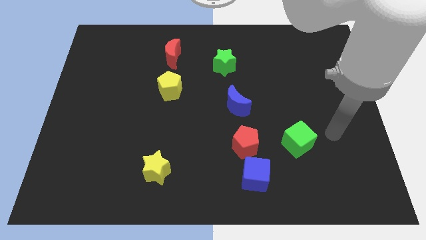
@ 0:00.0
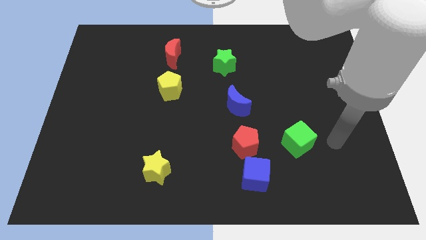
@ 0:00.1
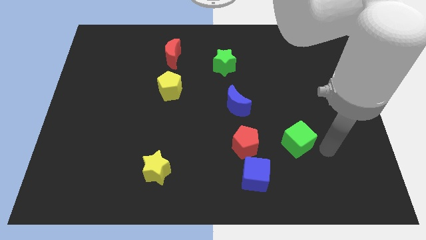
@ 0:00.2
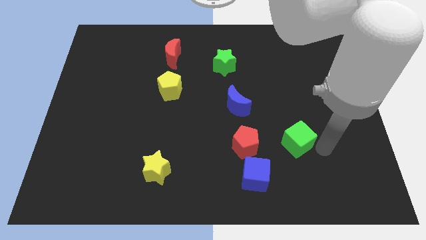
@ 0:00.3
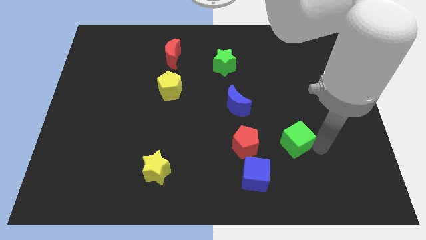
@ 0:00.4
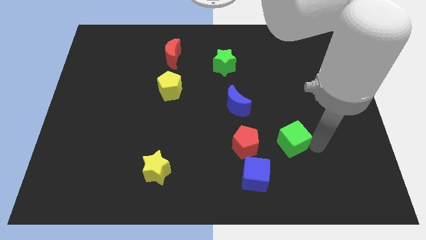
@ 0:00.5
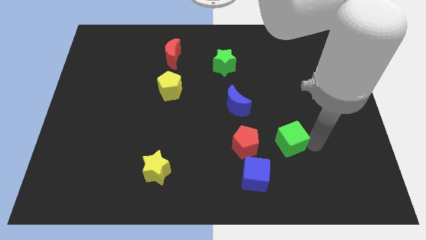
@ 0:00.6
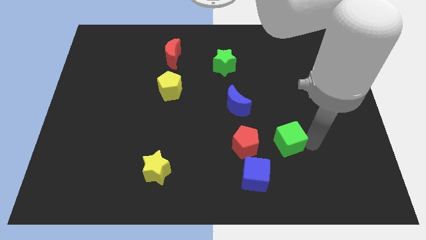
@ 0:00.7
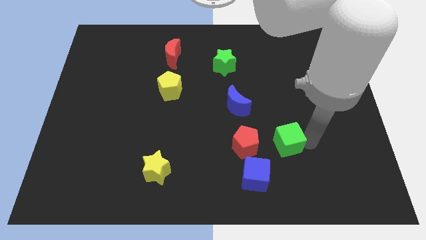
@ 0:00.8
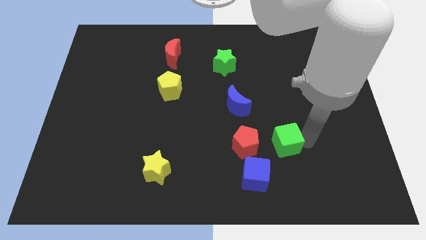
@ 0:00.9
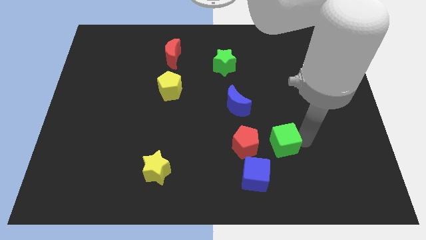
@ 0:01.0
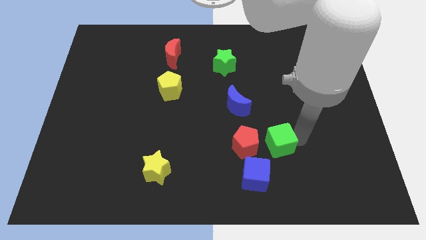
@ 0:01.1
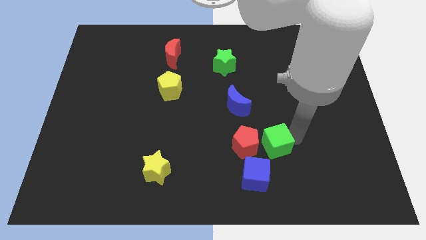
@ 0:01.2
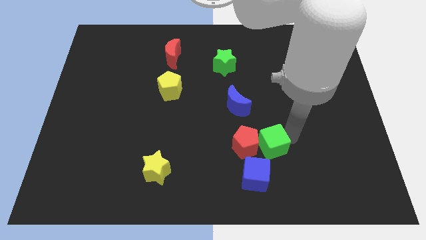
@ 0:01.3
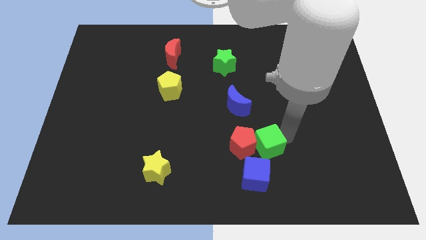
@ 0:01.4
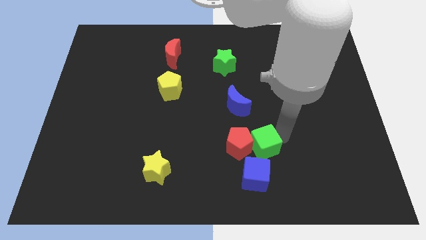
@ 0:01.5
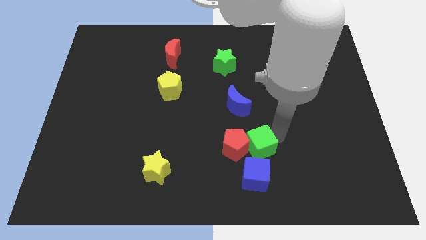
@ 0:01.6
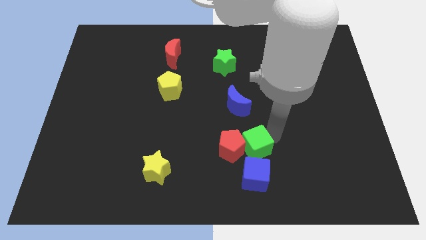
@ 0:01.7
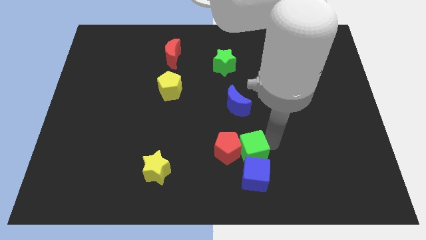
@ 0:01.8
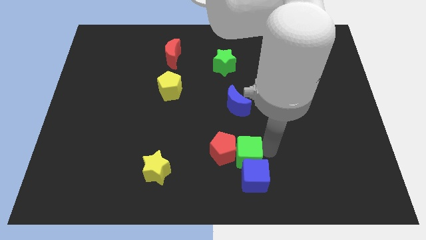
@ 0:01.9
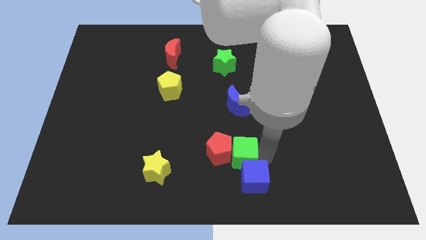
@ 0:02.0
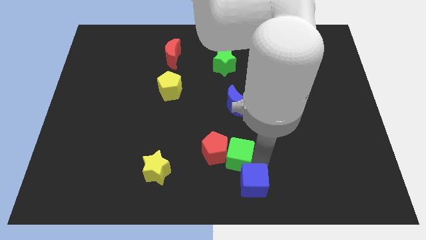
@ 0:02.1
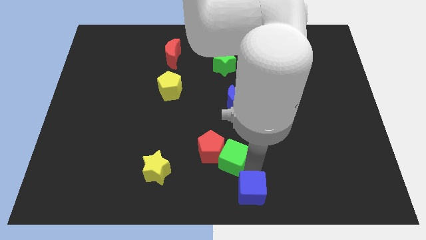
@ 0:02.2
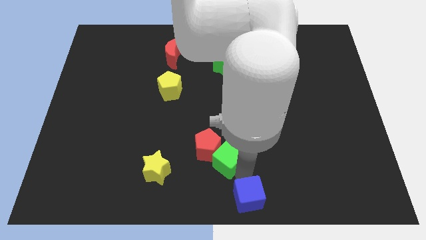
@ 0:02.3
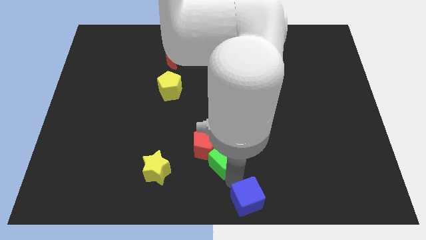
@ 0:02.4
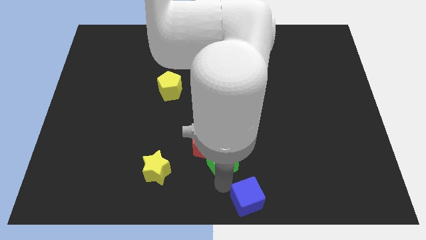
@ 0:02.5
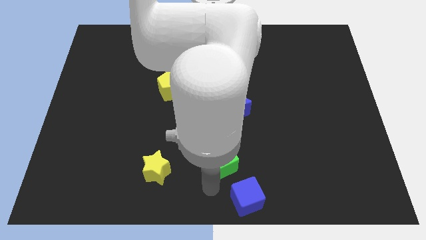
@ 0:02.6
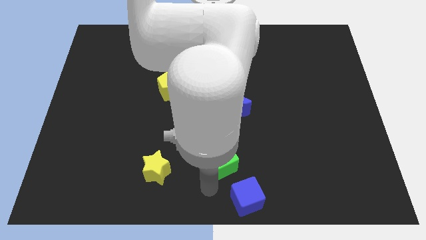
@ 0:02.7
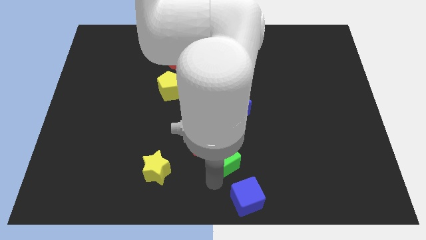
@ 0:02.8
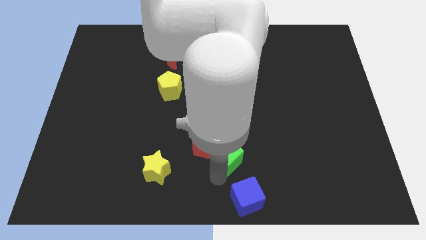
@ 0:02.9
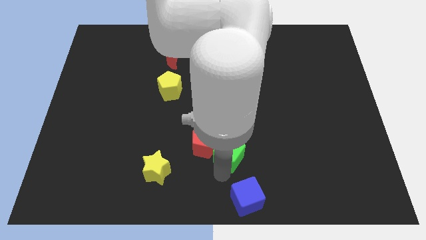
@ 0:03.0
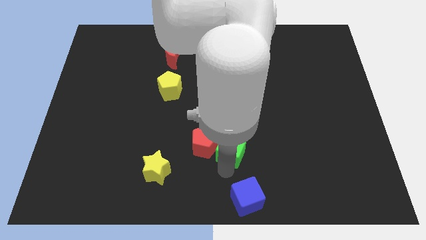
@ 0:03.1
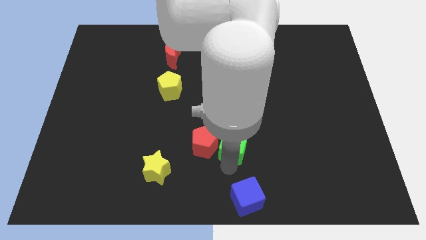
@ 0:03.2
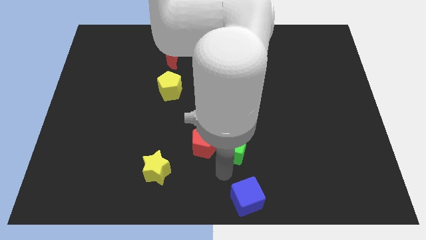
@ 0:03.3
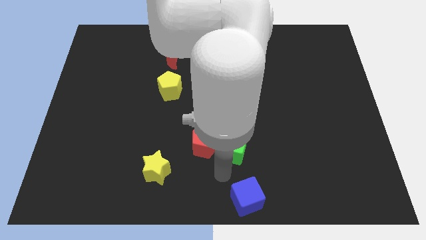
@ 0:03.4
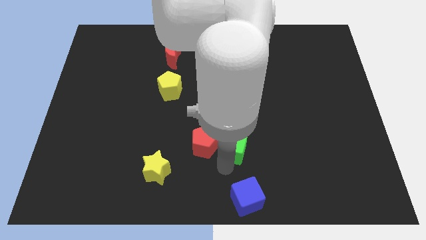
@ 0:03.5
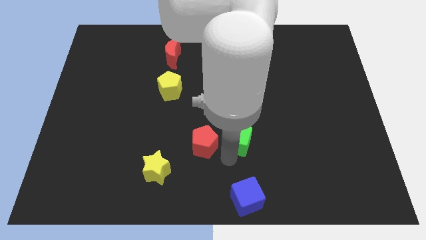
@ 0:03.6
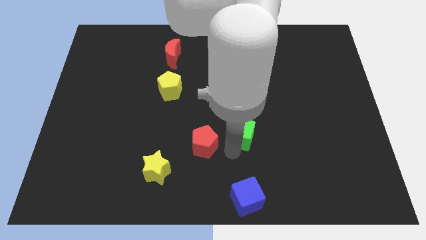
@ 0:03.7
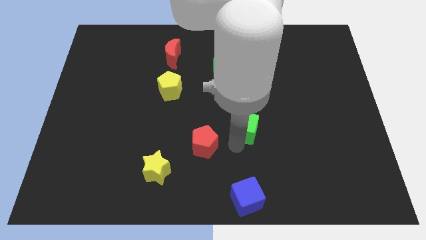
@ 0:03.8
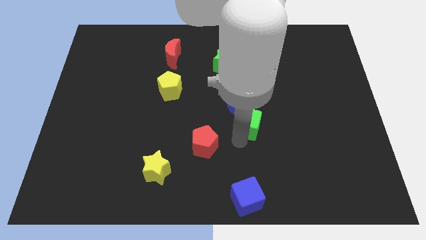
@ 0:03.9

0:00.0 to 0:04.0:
move the green cube to the blue moon

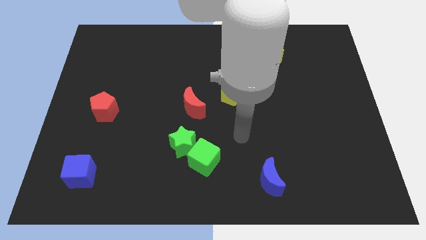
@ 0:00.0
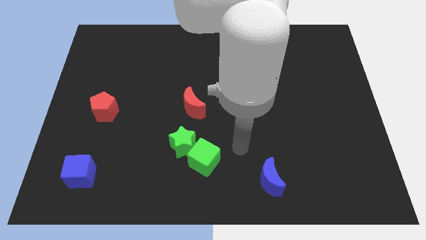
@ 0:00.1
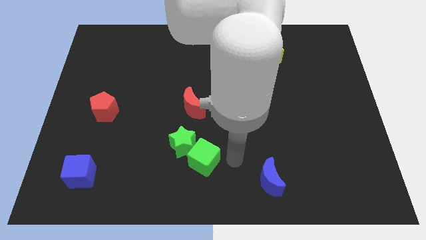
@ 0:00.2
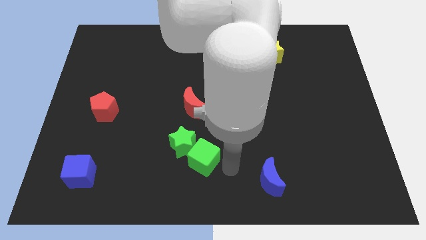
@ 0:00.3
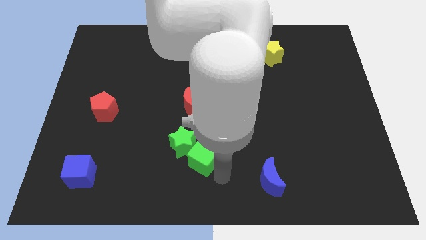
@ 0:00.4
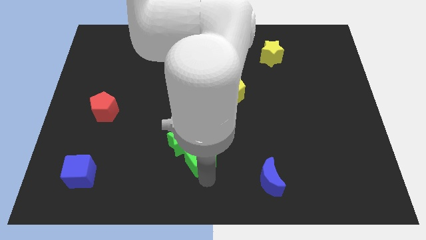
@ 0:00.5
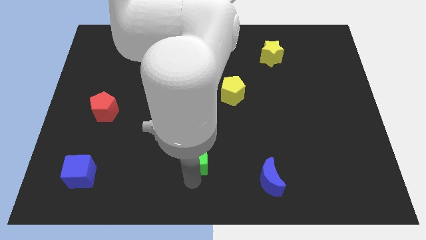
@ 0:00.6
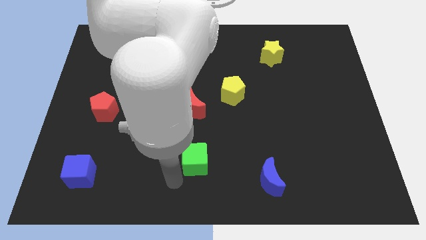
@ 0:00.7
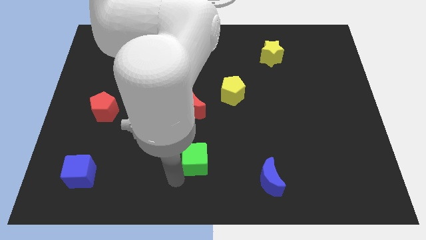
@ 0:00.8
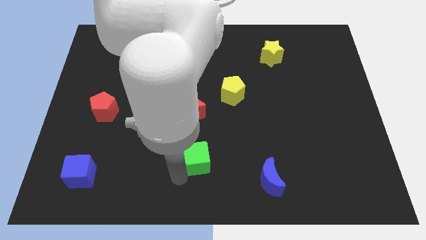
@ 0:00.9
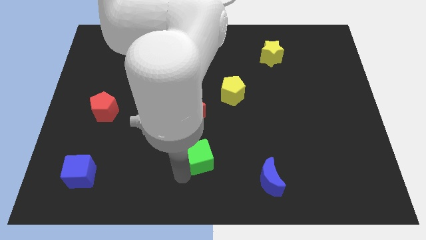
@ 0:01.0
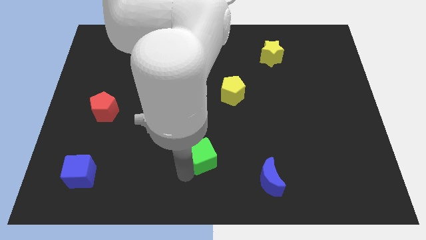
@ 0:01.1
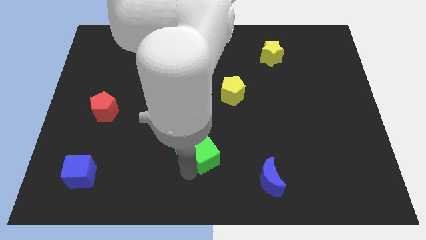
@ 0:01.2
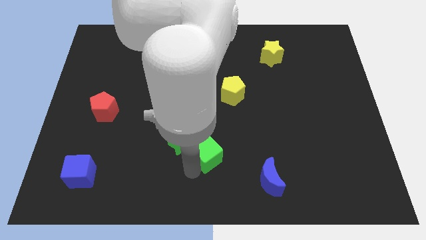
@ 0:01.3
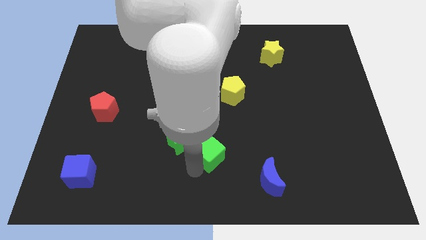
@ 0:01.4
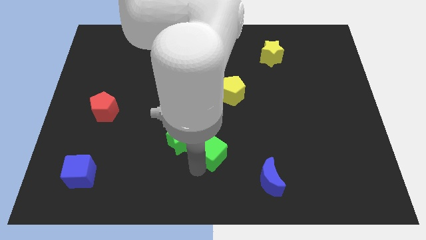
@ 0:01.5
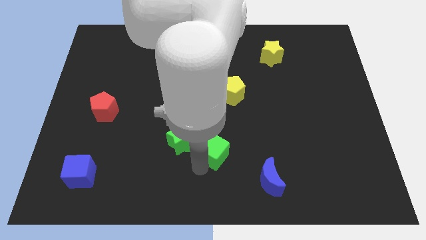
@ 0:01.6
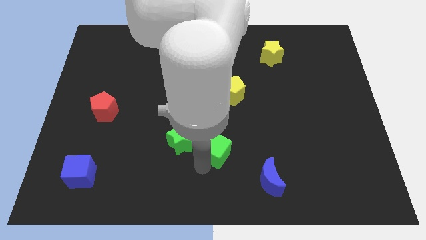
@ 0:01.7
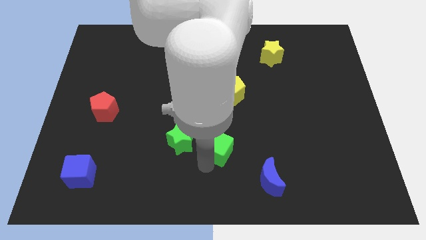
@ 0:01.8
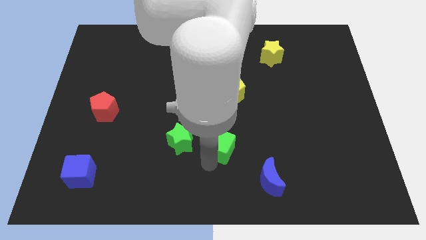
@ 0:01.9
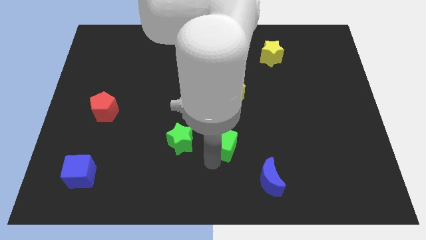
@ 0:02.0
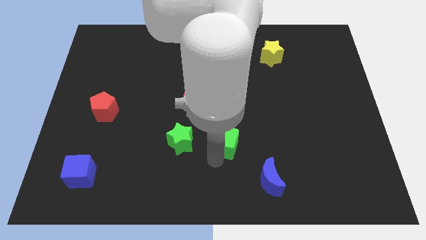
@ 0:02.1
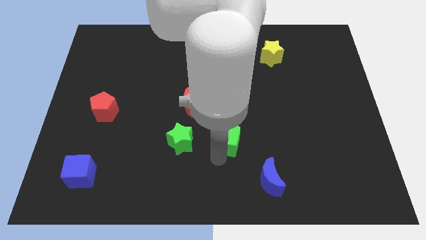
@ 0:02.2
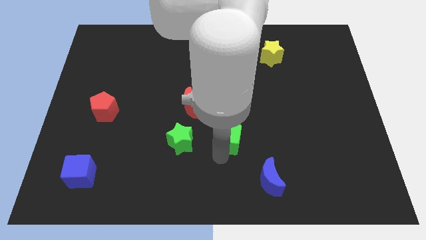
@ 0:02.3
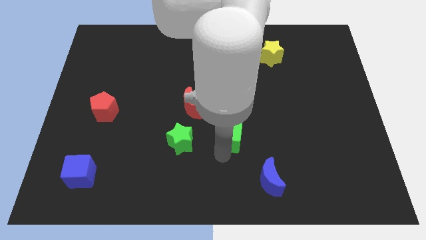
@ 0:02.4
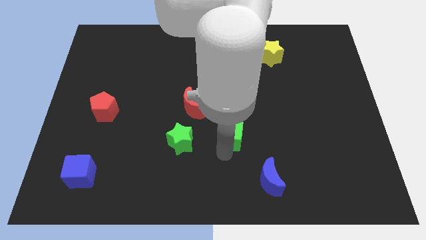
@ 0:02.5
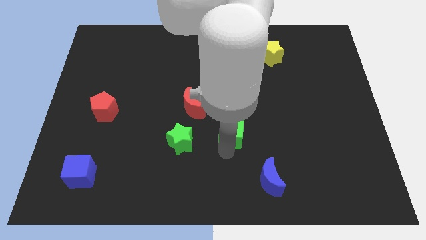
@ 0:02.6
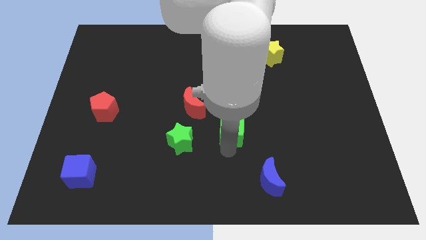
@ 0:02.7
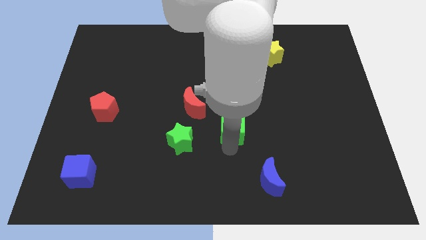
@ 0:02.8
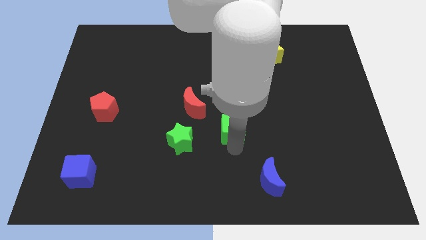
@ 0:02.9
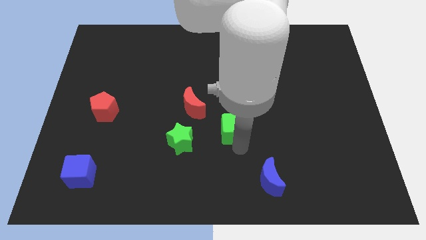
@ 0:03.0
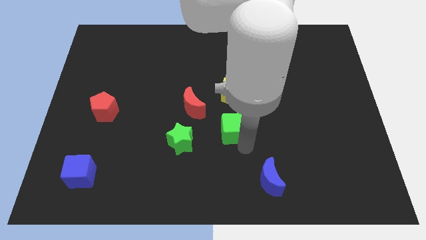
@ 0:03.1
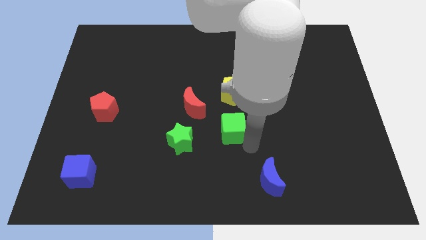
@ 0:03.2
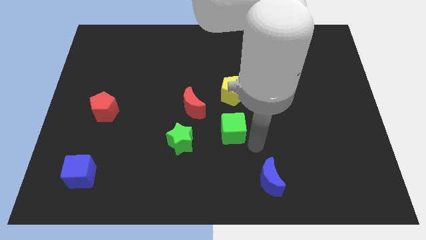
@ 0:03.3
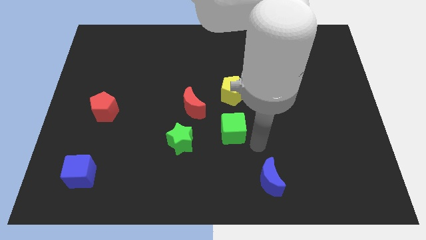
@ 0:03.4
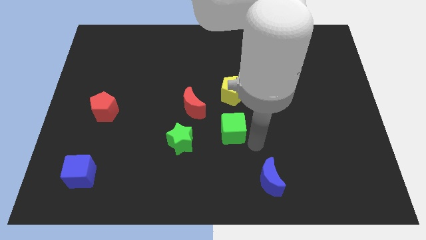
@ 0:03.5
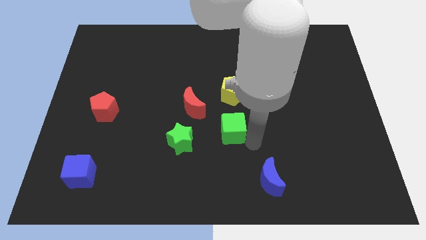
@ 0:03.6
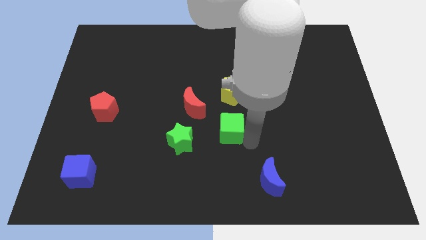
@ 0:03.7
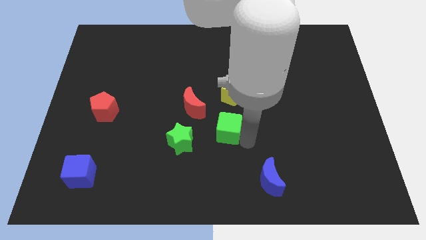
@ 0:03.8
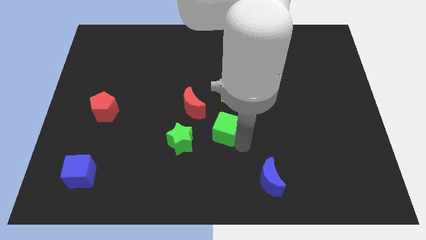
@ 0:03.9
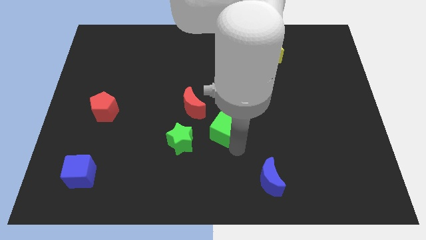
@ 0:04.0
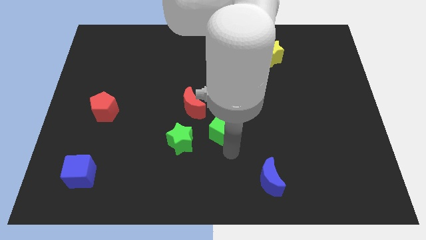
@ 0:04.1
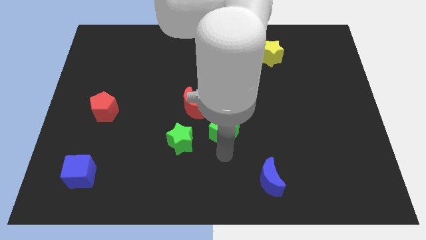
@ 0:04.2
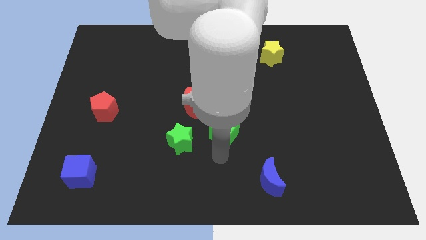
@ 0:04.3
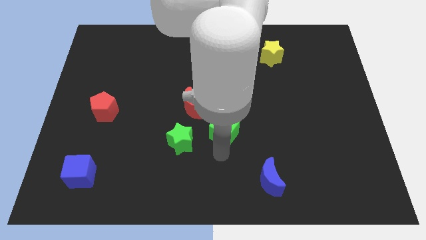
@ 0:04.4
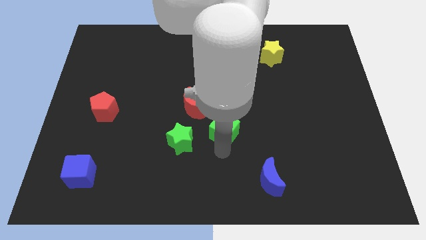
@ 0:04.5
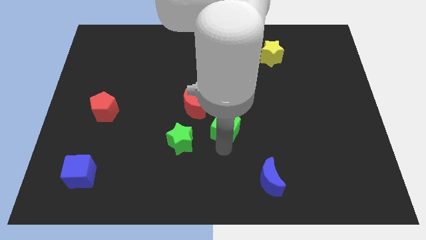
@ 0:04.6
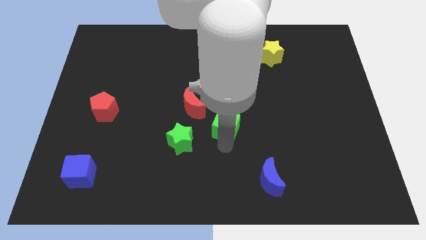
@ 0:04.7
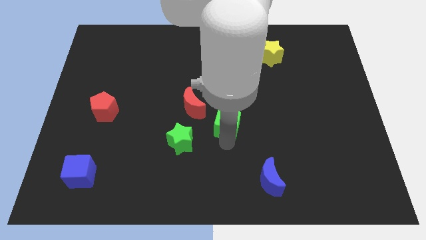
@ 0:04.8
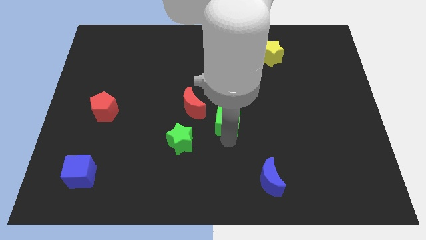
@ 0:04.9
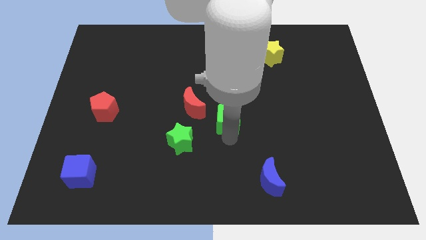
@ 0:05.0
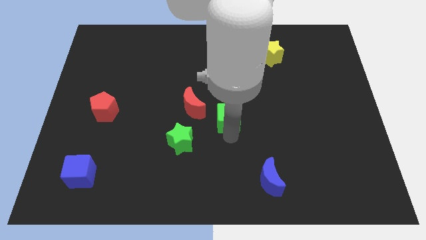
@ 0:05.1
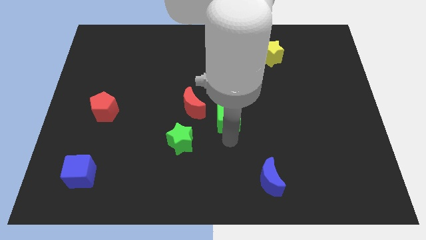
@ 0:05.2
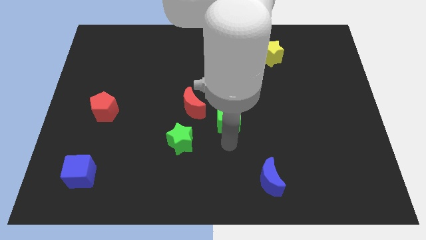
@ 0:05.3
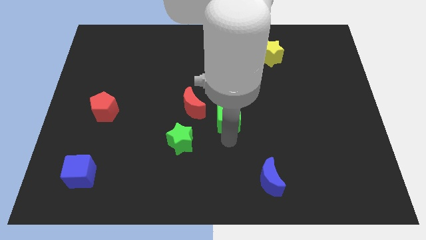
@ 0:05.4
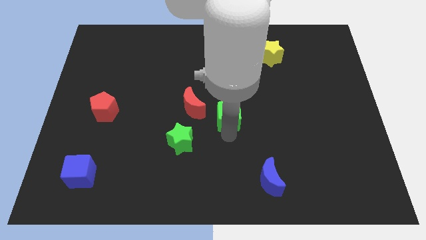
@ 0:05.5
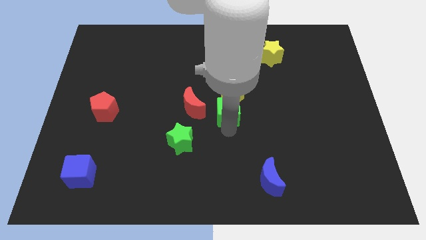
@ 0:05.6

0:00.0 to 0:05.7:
move the green cube to the yellow pentagon
